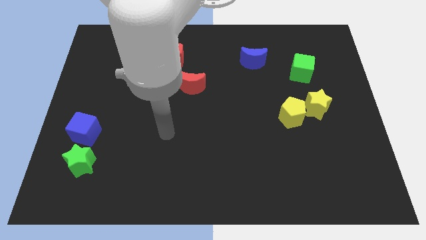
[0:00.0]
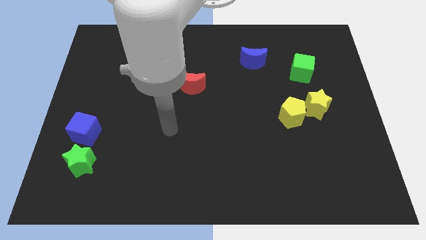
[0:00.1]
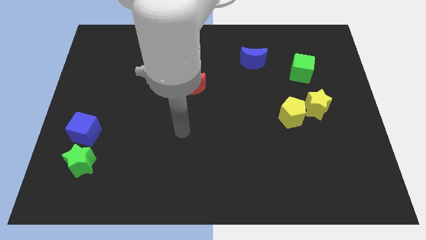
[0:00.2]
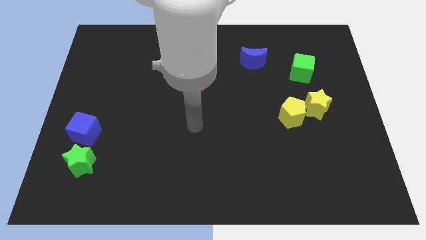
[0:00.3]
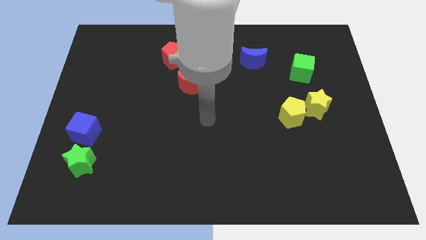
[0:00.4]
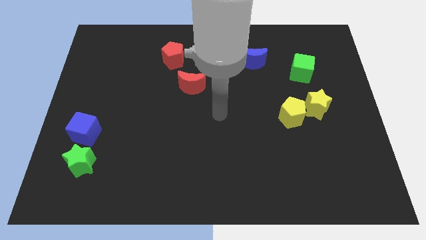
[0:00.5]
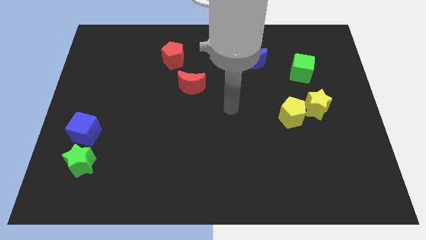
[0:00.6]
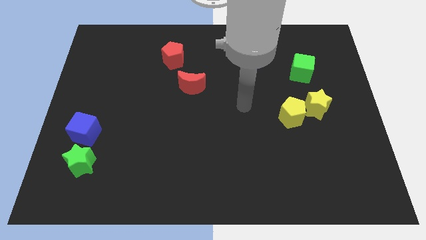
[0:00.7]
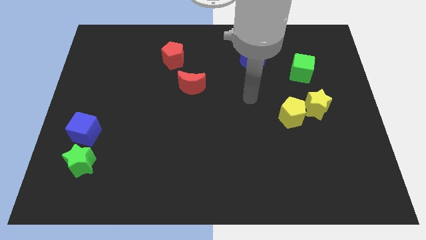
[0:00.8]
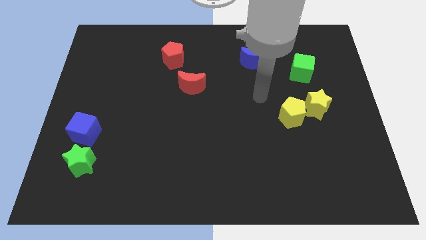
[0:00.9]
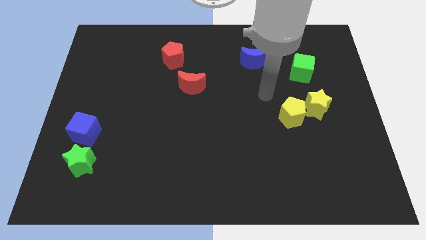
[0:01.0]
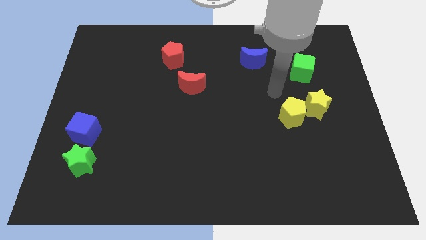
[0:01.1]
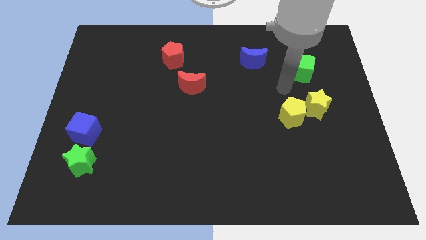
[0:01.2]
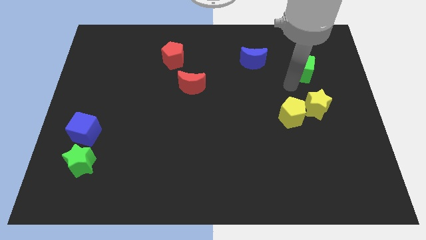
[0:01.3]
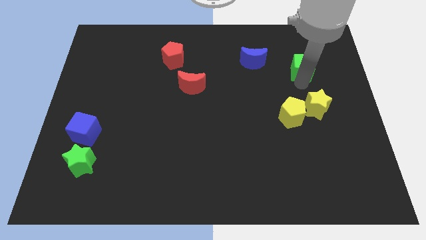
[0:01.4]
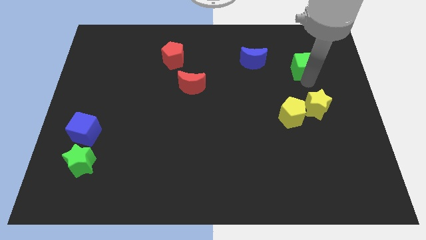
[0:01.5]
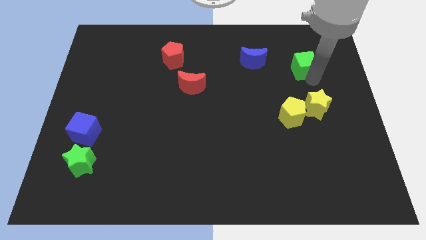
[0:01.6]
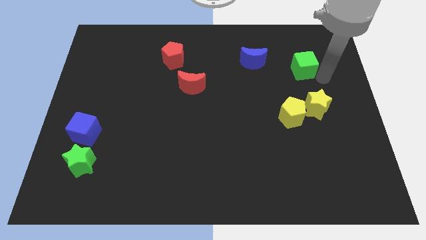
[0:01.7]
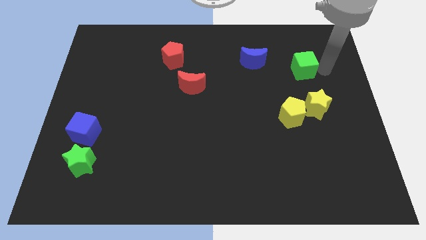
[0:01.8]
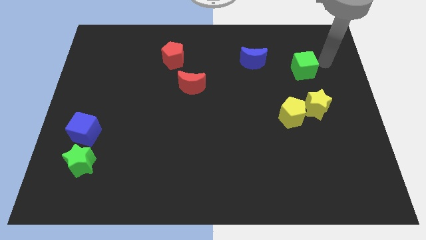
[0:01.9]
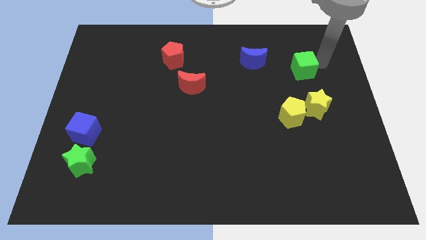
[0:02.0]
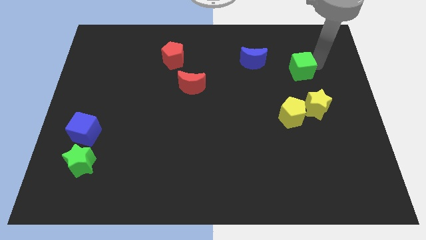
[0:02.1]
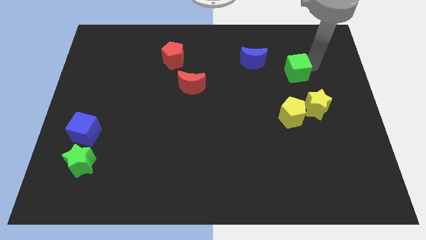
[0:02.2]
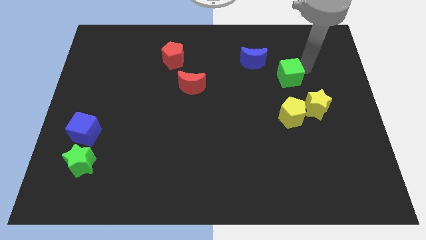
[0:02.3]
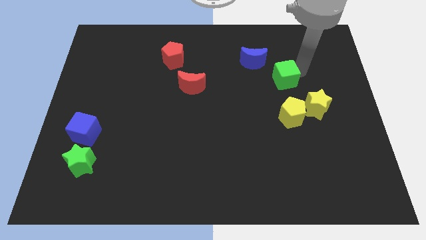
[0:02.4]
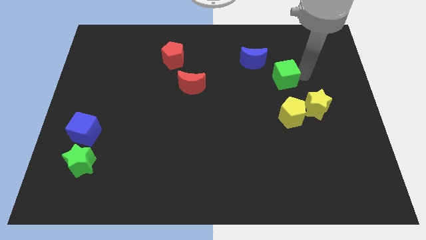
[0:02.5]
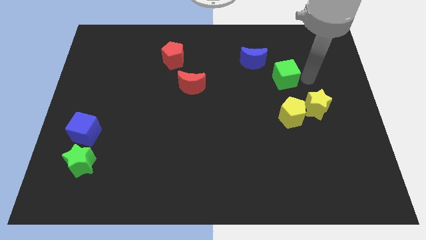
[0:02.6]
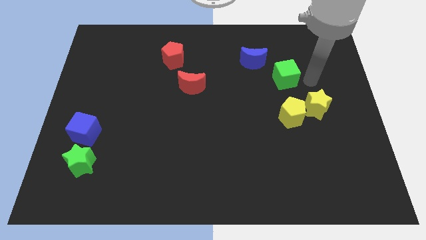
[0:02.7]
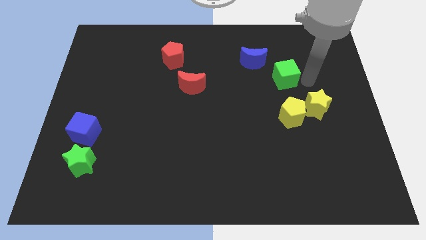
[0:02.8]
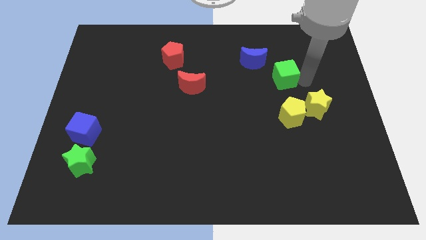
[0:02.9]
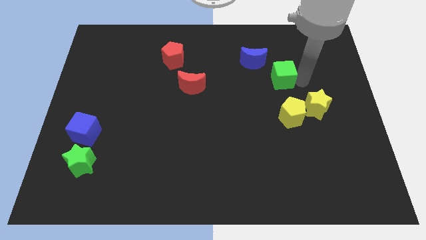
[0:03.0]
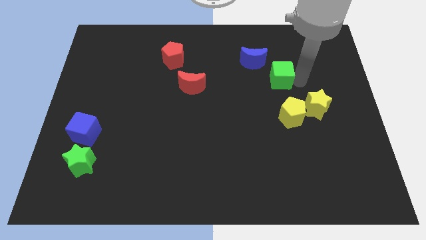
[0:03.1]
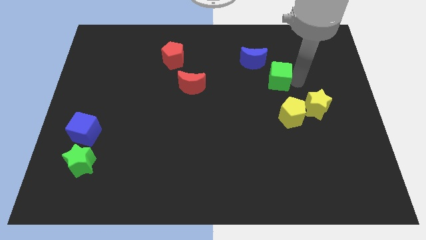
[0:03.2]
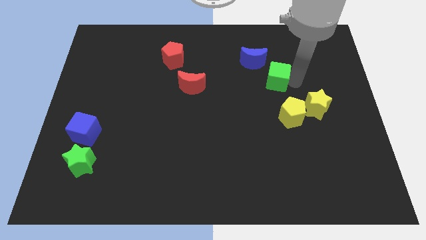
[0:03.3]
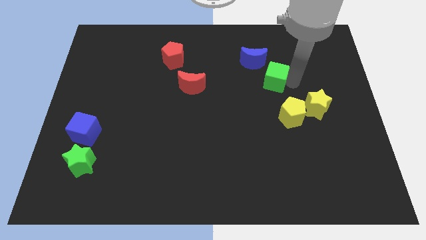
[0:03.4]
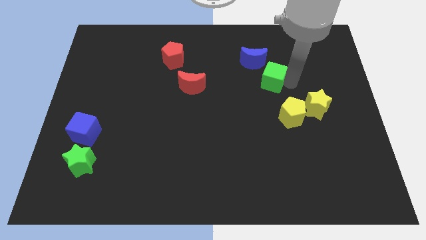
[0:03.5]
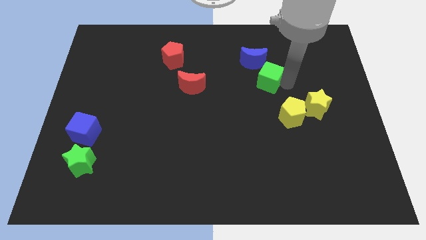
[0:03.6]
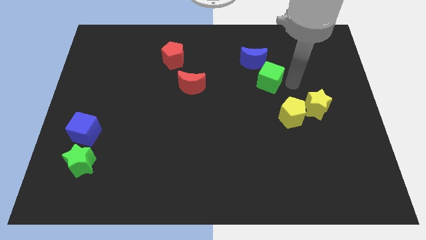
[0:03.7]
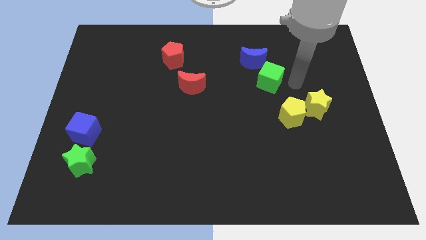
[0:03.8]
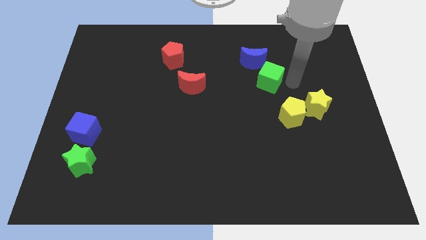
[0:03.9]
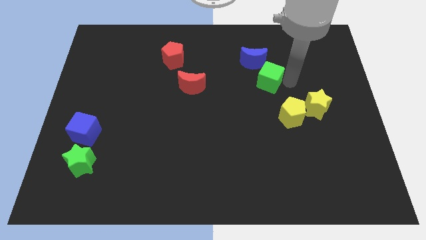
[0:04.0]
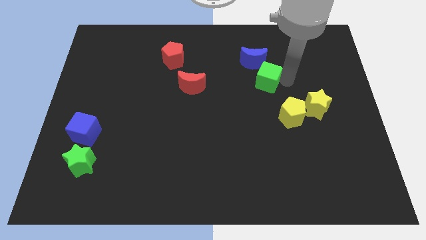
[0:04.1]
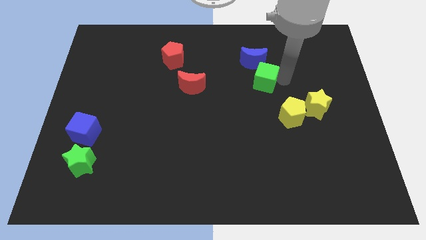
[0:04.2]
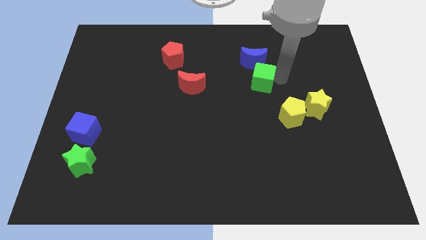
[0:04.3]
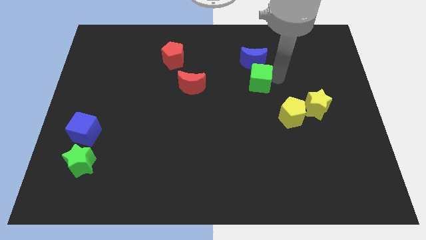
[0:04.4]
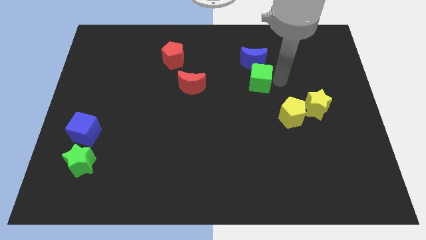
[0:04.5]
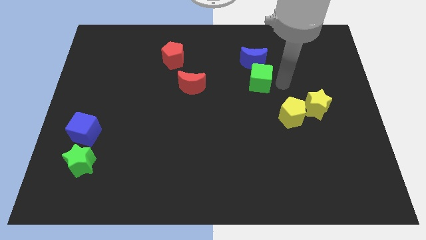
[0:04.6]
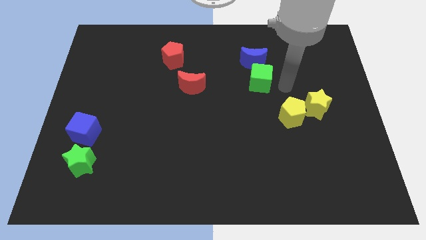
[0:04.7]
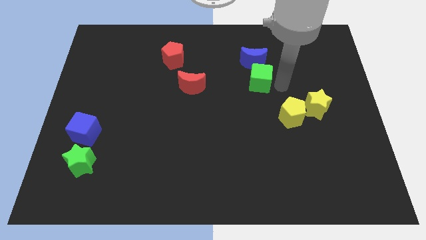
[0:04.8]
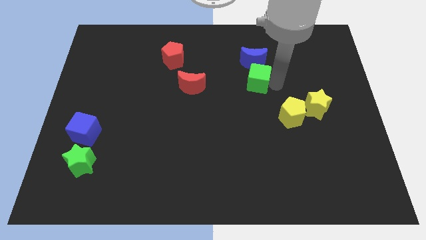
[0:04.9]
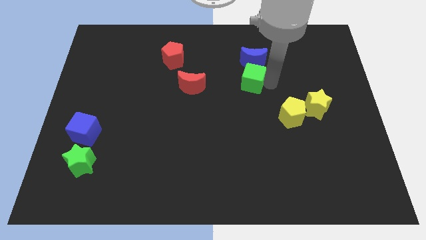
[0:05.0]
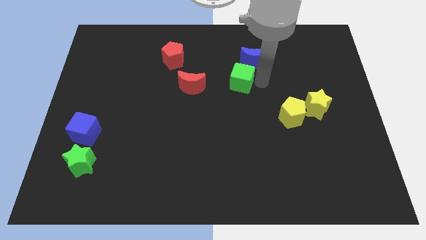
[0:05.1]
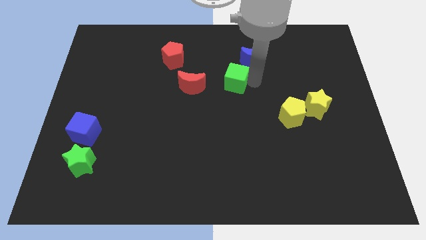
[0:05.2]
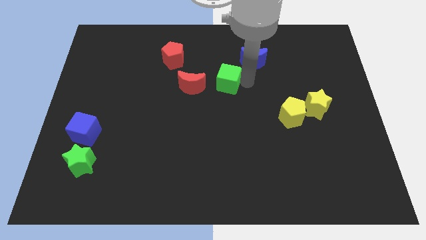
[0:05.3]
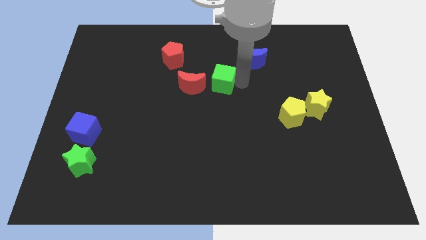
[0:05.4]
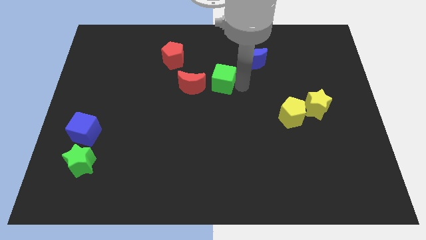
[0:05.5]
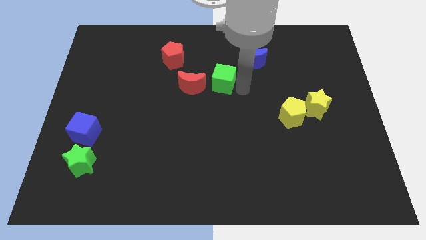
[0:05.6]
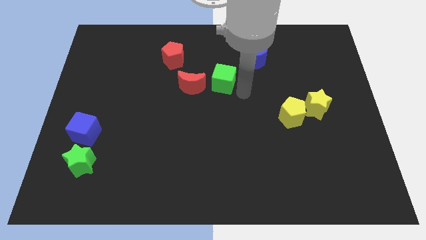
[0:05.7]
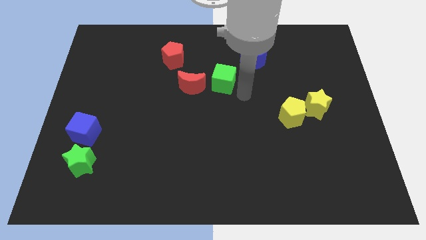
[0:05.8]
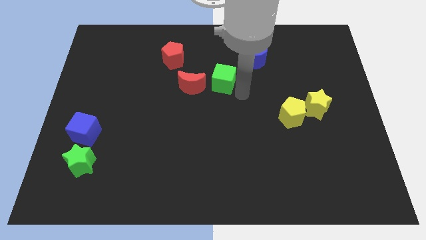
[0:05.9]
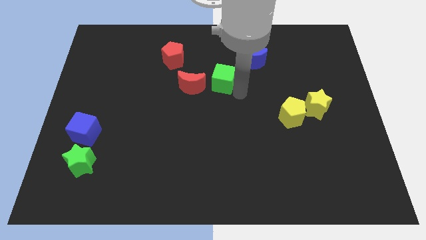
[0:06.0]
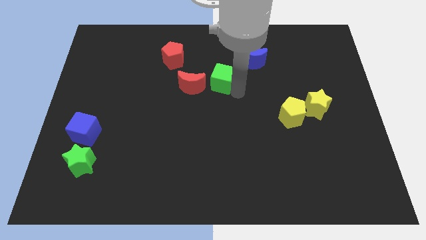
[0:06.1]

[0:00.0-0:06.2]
push the green cube left

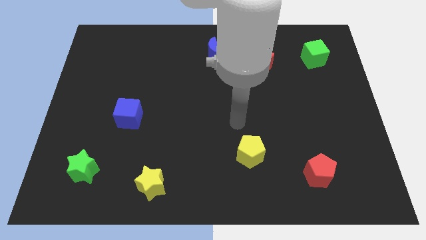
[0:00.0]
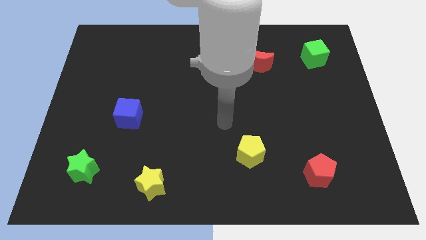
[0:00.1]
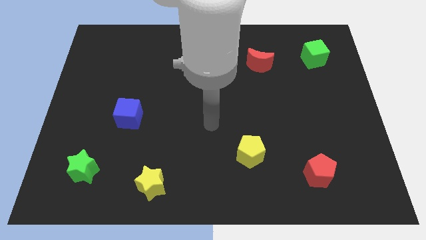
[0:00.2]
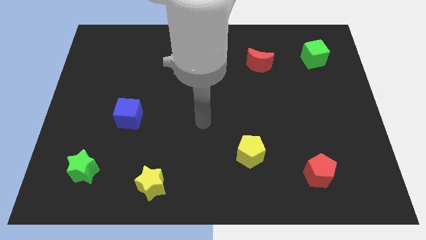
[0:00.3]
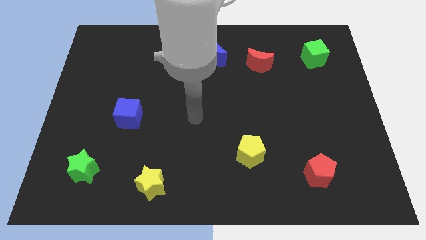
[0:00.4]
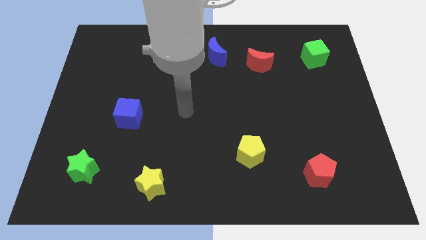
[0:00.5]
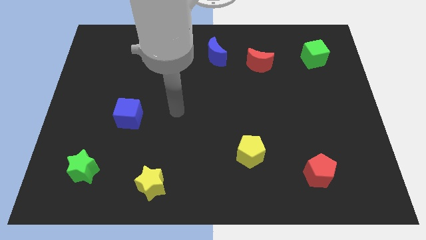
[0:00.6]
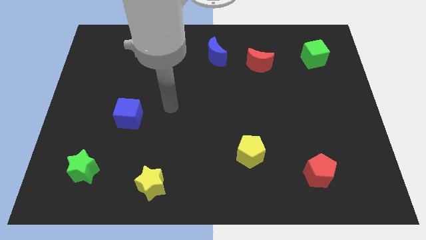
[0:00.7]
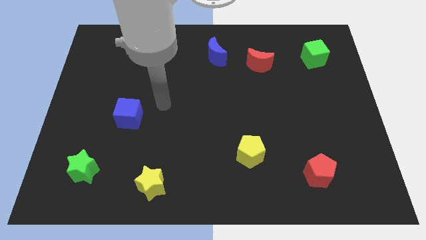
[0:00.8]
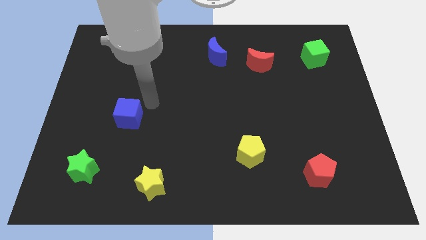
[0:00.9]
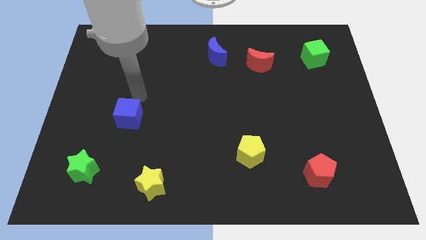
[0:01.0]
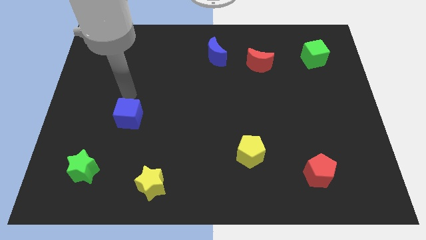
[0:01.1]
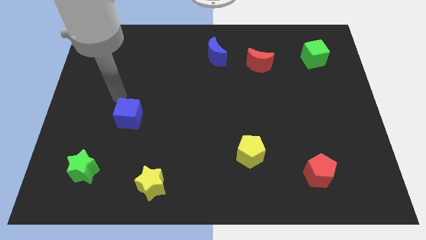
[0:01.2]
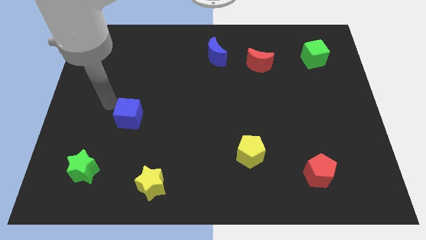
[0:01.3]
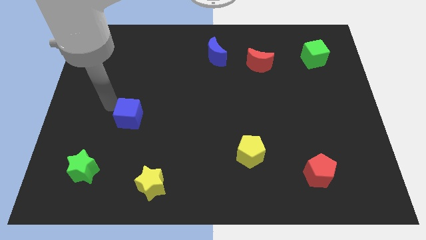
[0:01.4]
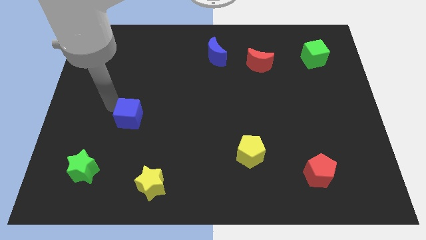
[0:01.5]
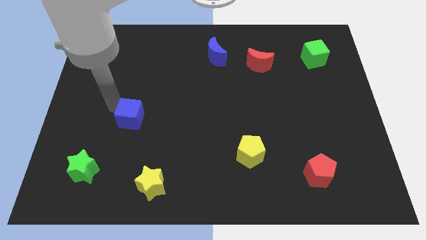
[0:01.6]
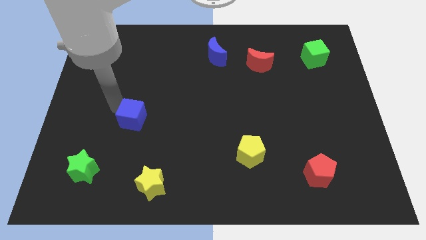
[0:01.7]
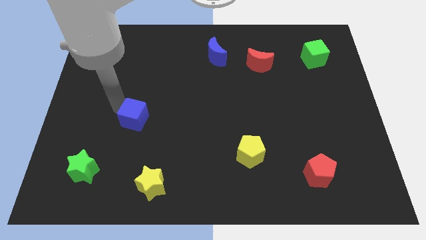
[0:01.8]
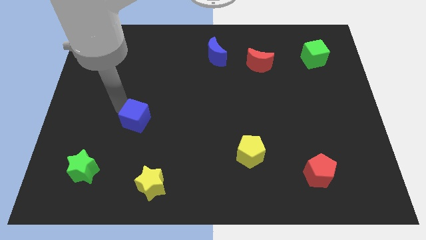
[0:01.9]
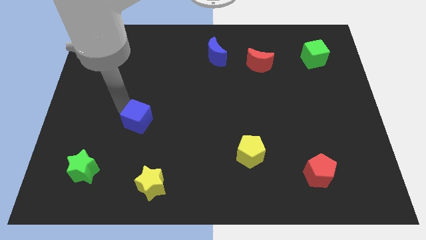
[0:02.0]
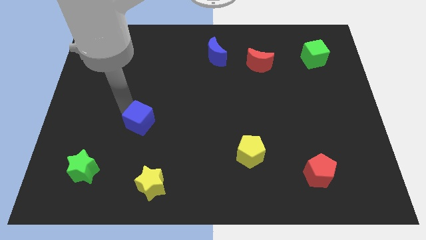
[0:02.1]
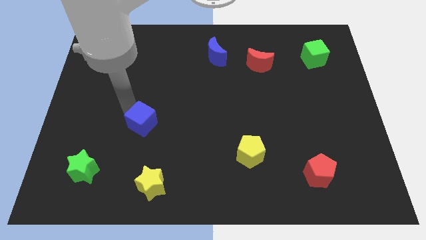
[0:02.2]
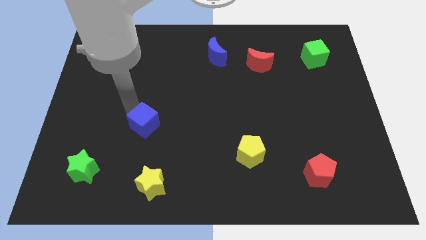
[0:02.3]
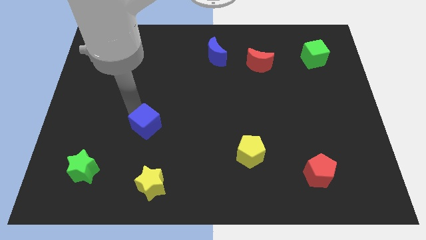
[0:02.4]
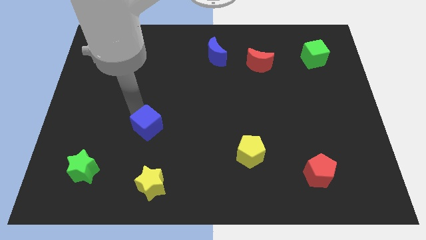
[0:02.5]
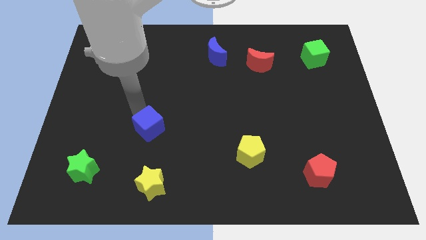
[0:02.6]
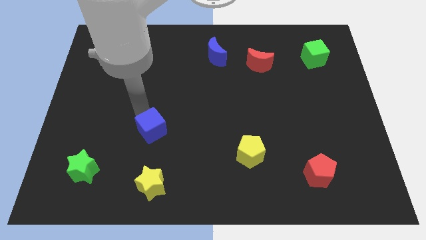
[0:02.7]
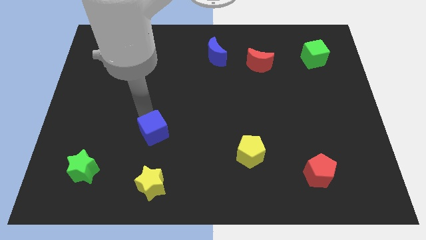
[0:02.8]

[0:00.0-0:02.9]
slightly slide the blue cube downwards and to the right
